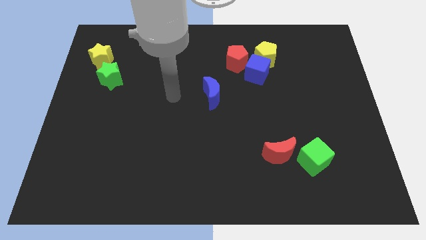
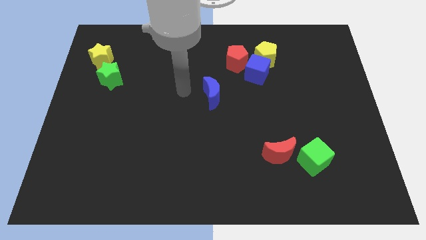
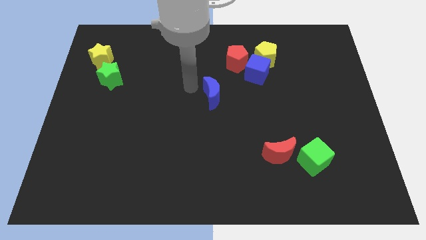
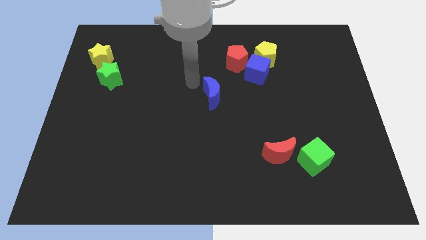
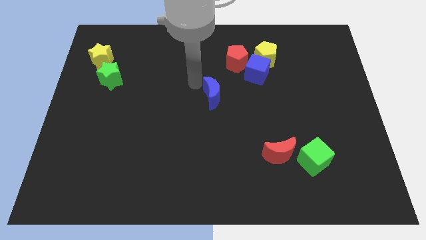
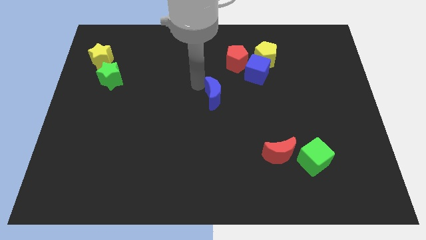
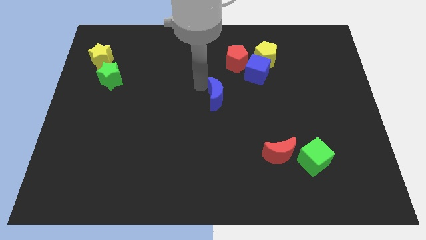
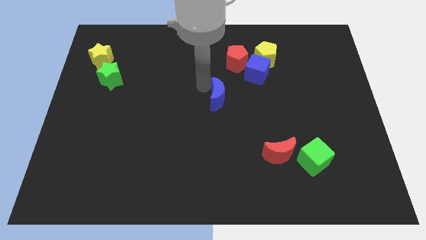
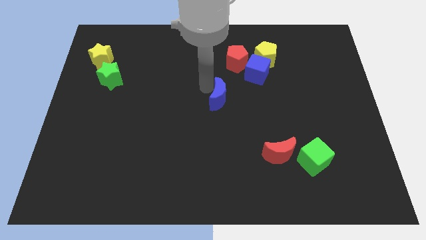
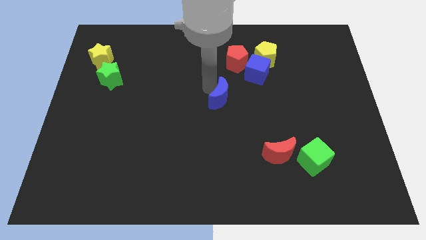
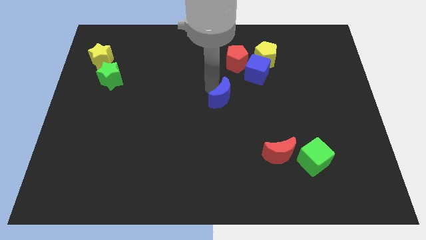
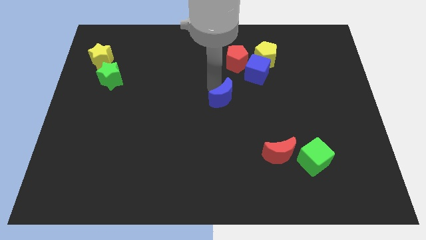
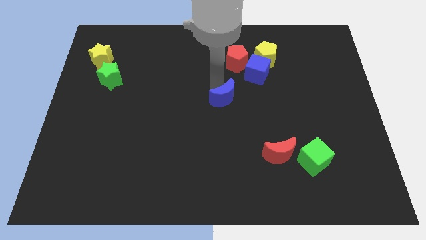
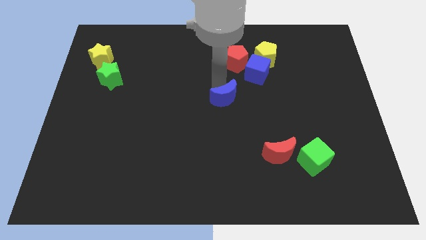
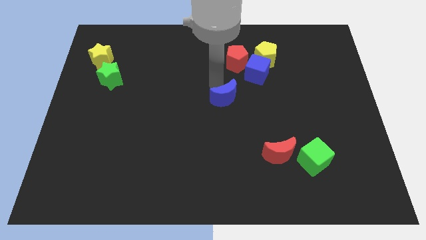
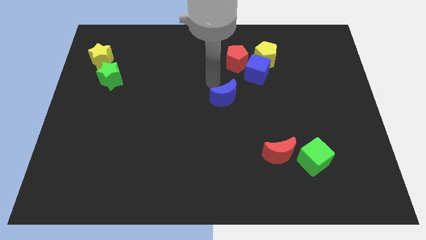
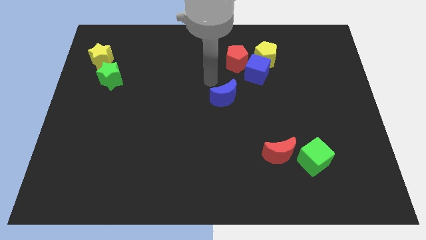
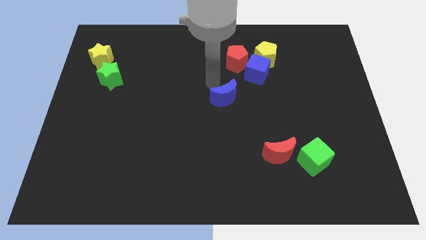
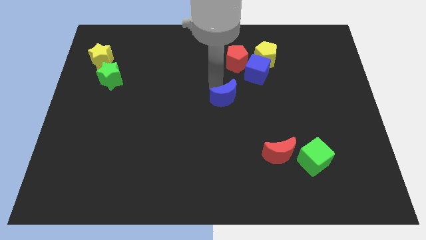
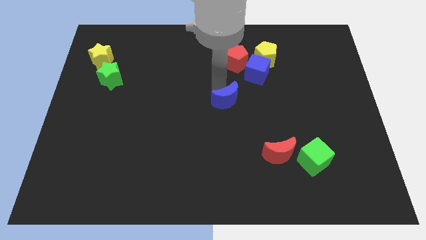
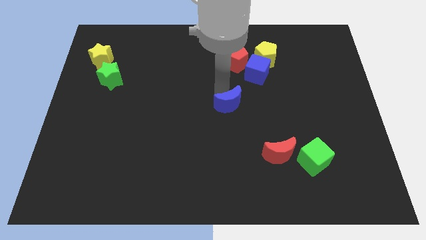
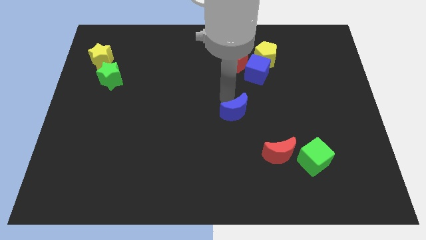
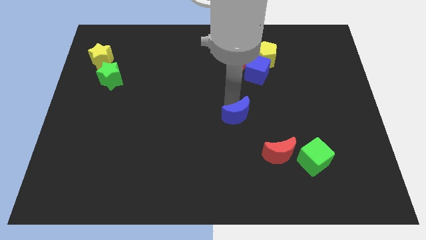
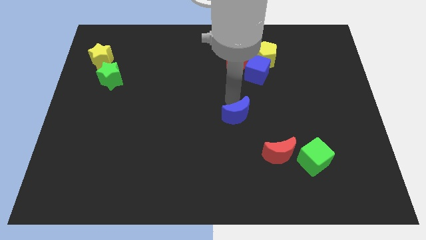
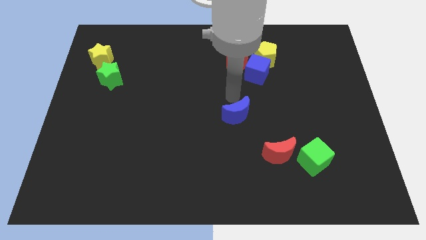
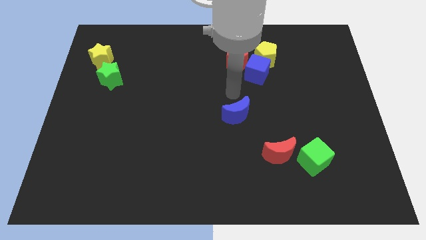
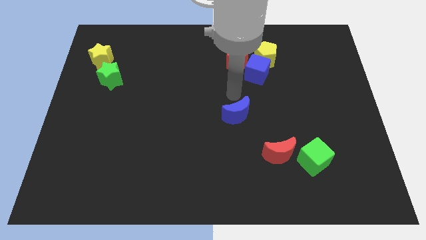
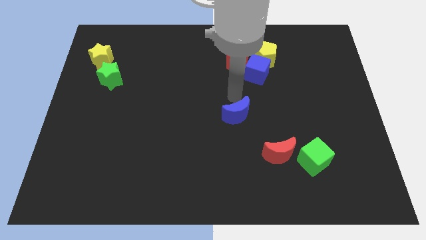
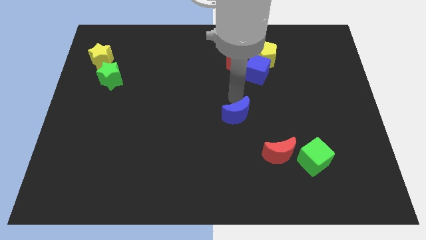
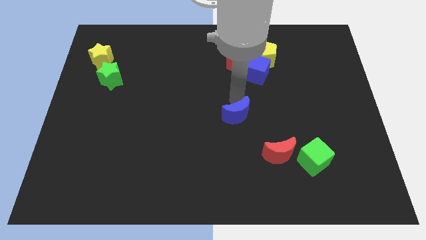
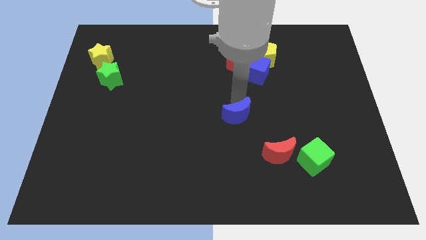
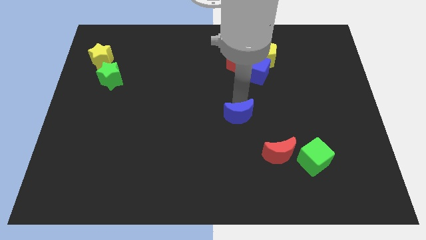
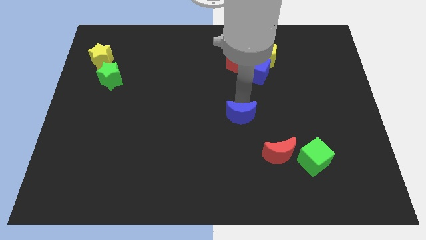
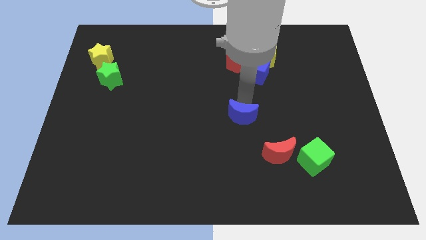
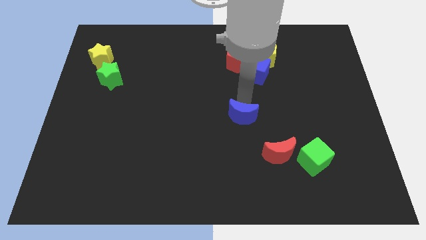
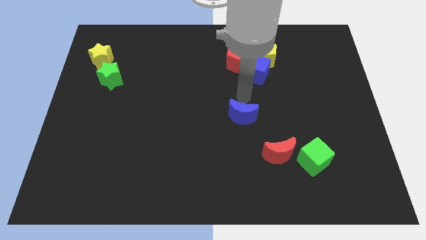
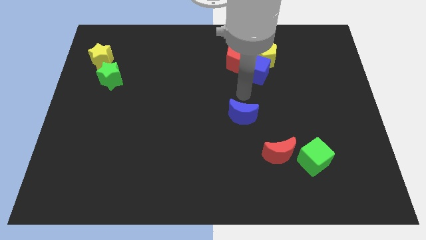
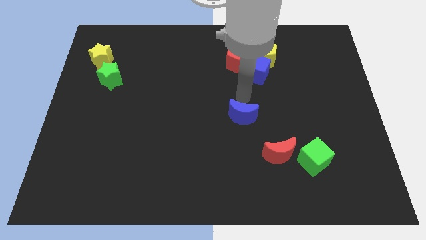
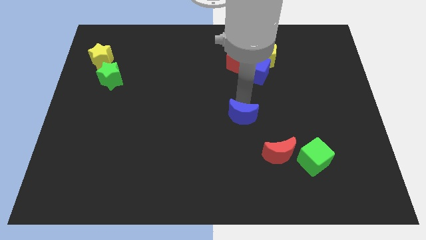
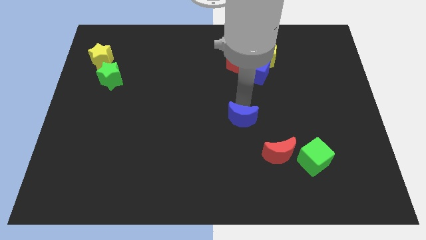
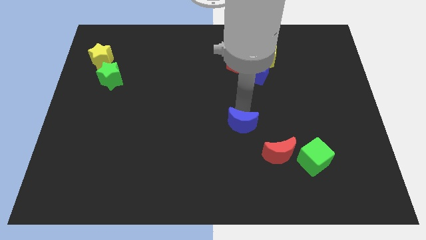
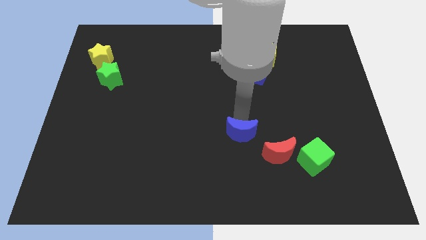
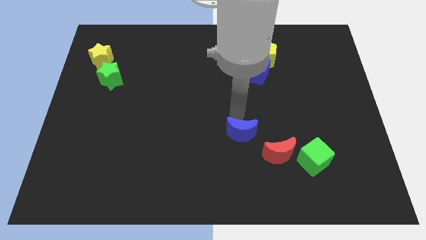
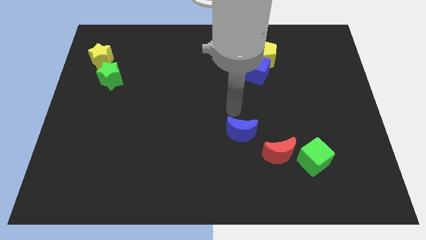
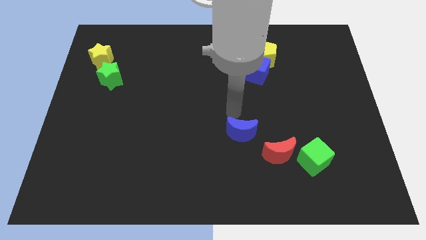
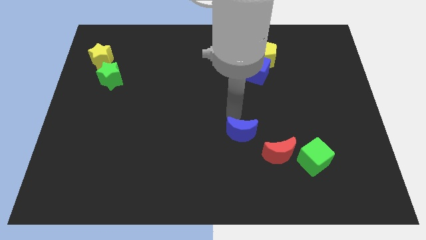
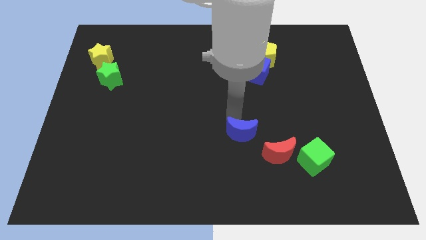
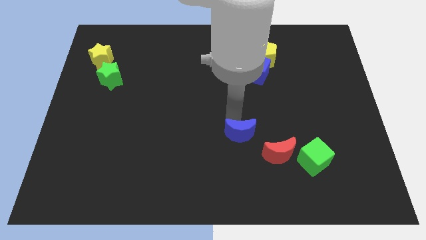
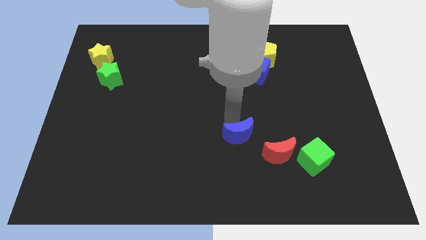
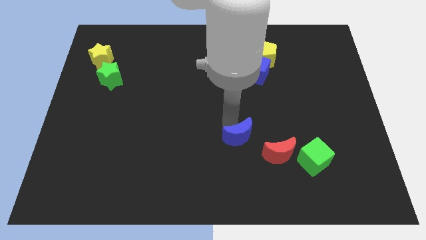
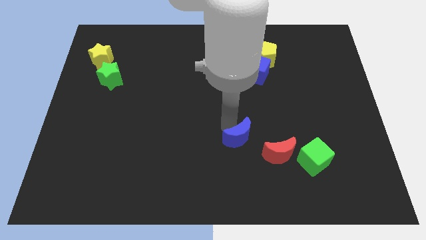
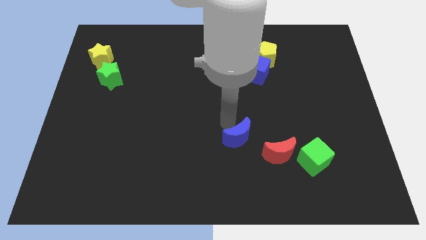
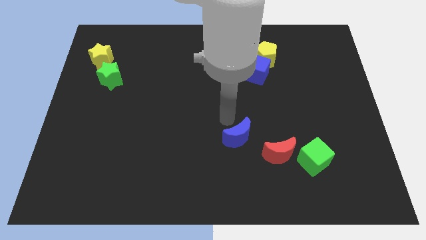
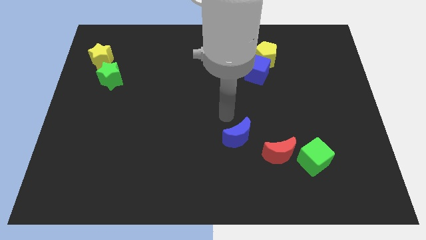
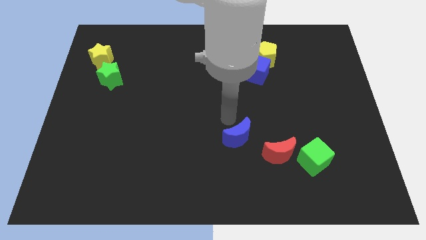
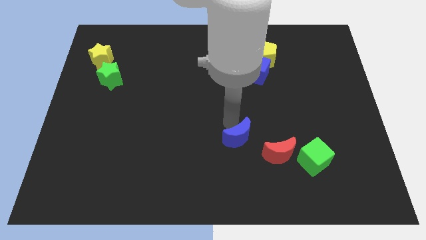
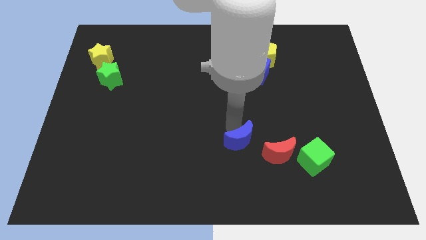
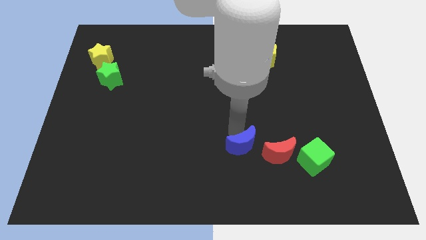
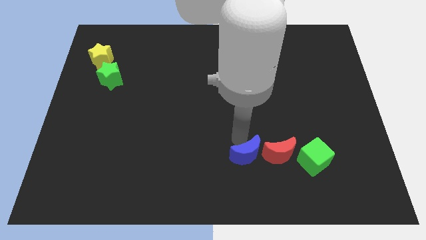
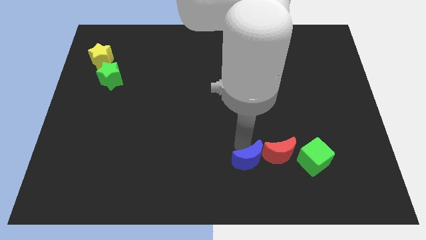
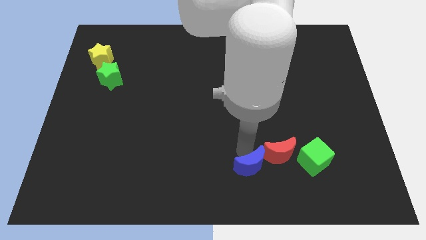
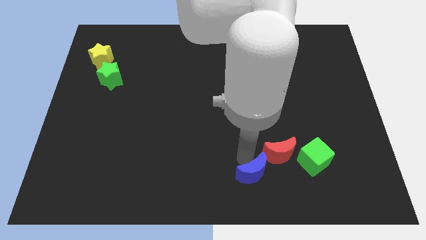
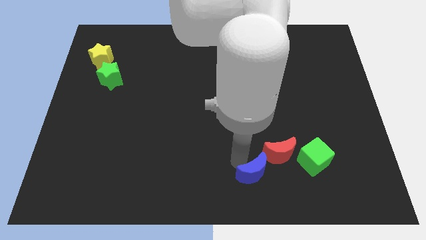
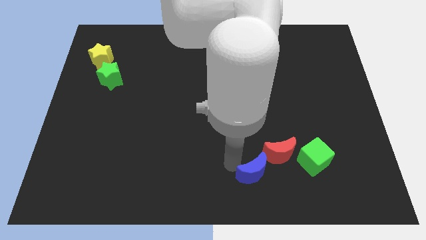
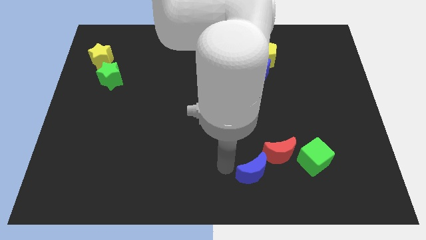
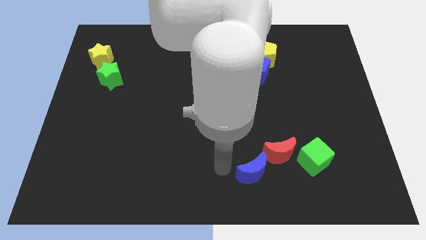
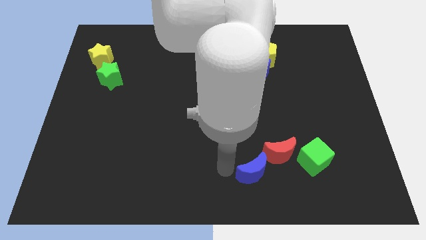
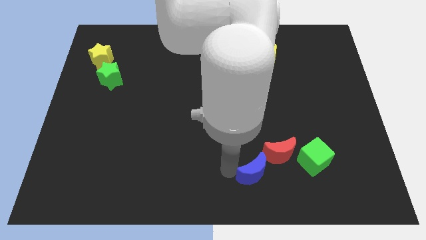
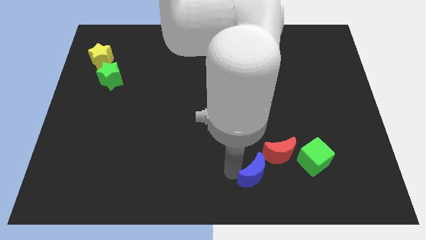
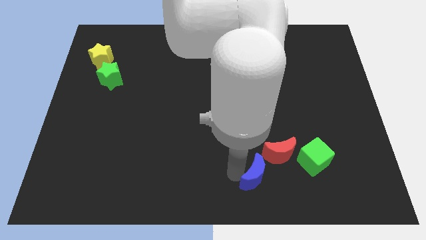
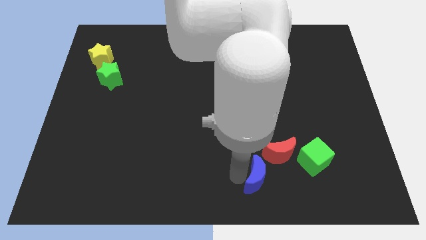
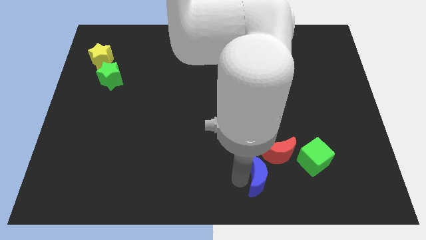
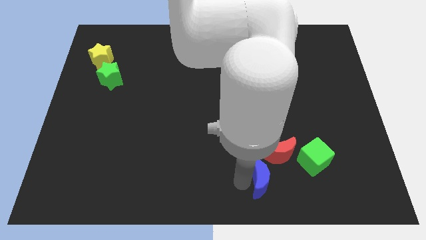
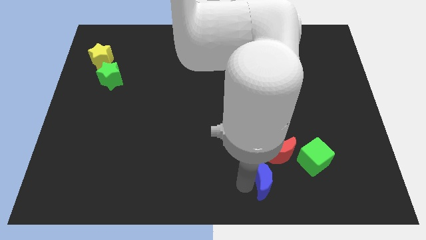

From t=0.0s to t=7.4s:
slide the blue moon down and then right
